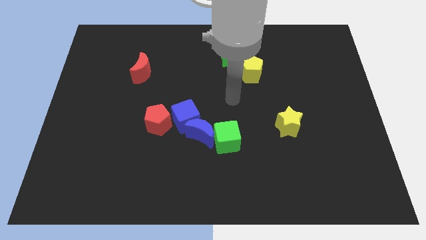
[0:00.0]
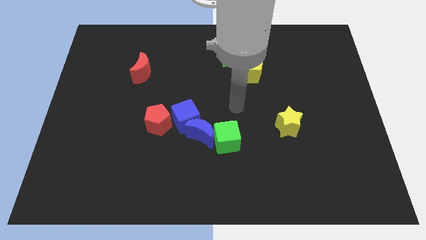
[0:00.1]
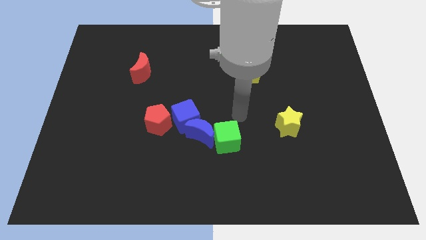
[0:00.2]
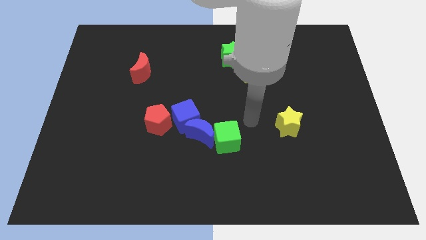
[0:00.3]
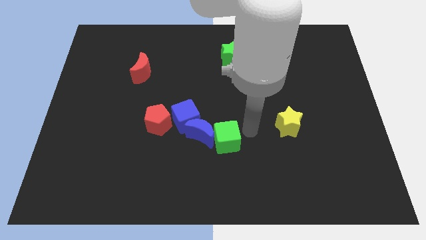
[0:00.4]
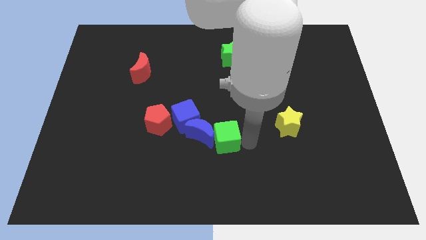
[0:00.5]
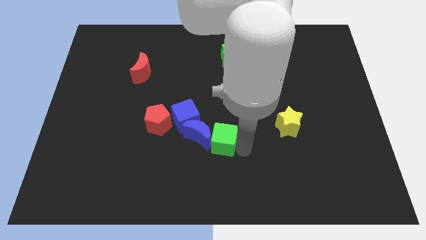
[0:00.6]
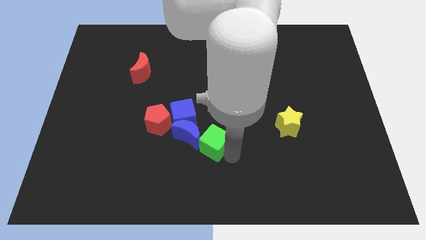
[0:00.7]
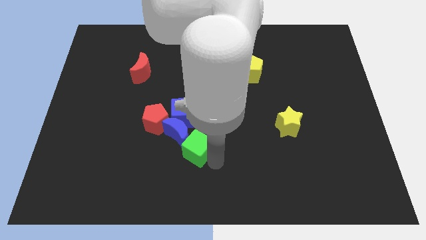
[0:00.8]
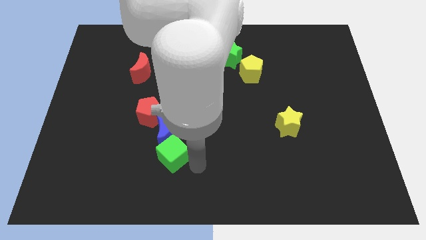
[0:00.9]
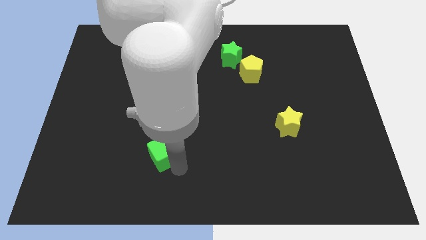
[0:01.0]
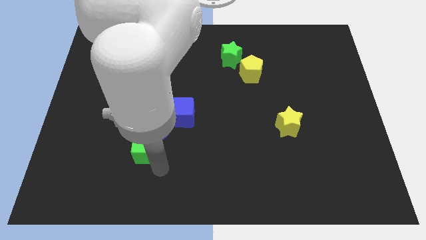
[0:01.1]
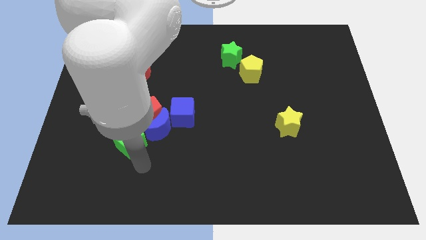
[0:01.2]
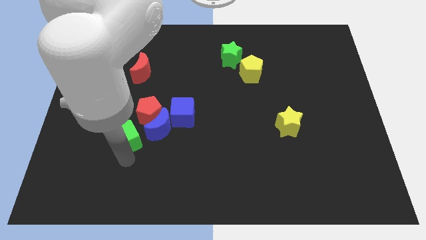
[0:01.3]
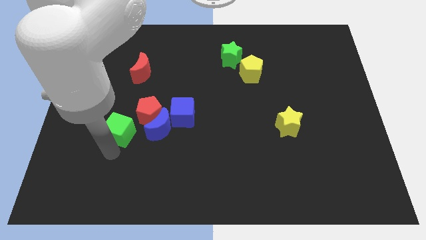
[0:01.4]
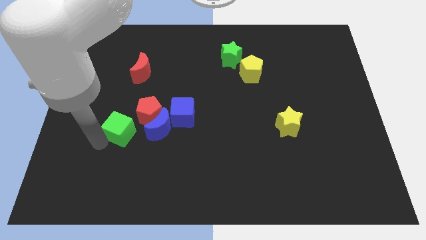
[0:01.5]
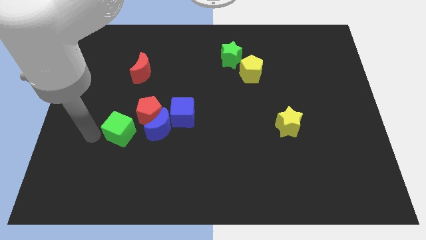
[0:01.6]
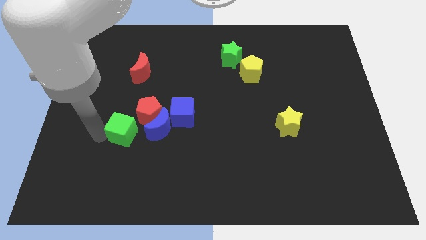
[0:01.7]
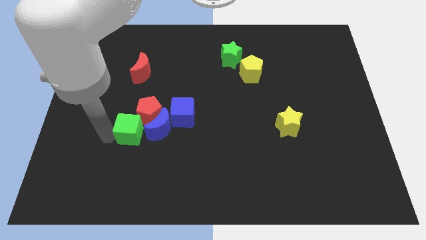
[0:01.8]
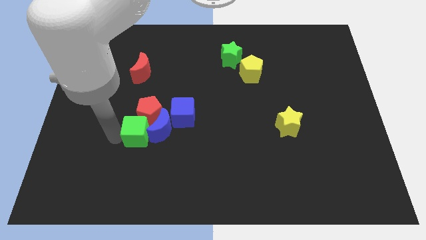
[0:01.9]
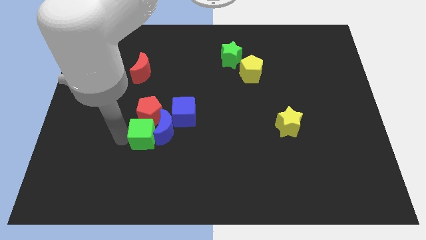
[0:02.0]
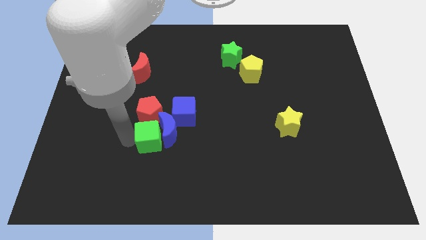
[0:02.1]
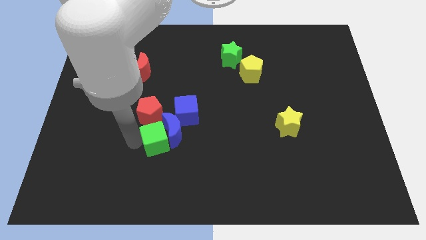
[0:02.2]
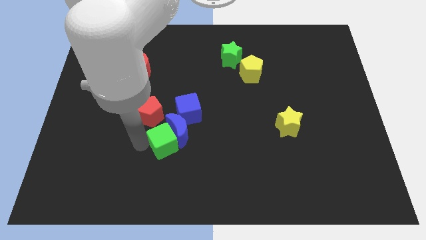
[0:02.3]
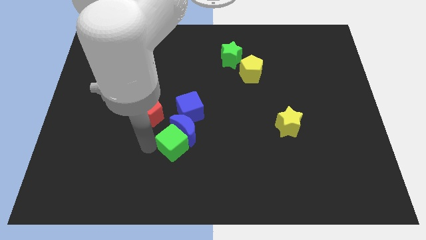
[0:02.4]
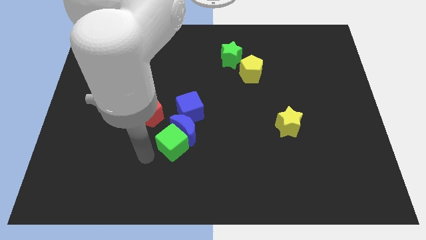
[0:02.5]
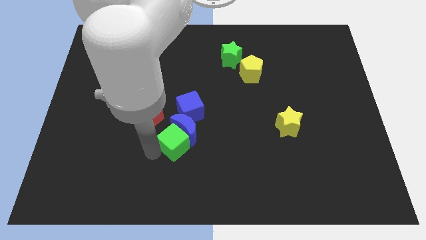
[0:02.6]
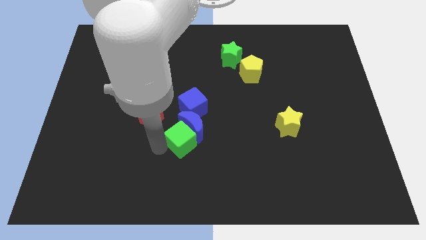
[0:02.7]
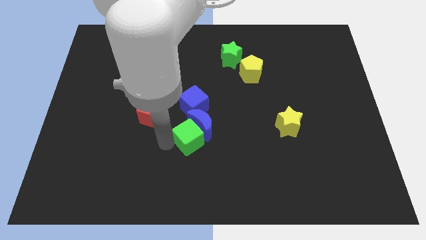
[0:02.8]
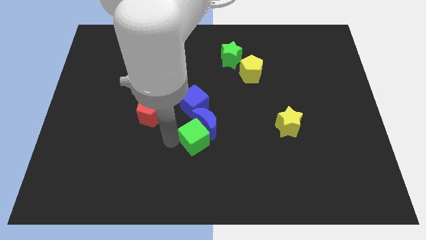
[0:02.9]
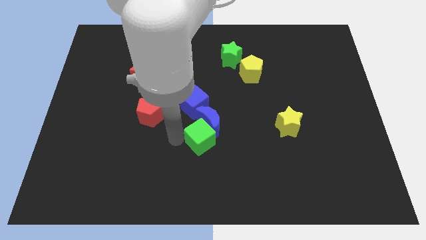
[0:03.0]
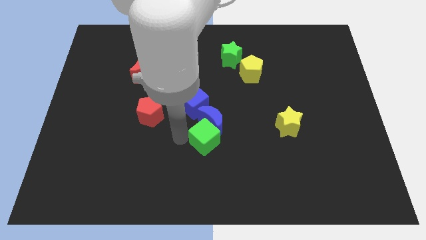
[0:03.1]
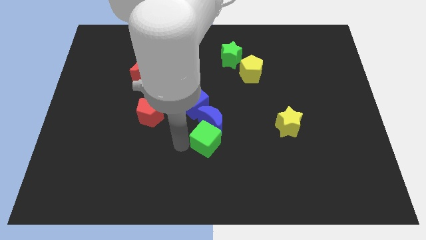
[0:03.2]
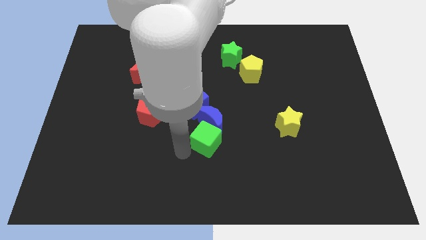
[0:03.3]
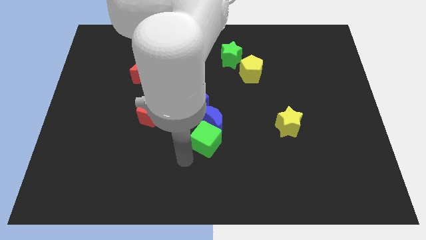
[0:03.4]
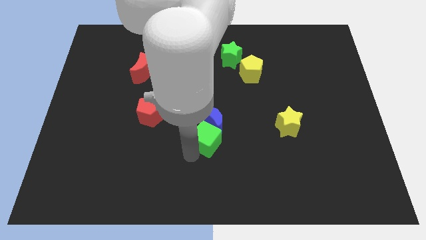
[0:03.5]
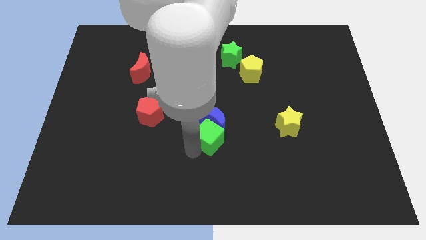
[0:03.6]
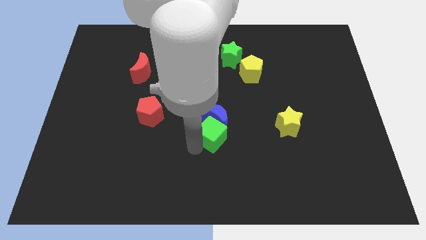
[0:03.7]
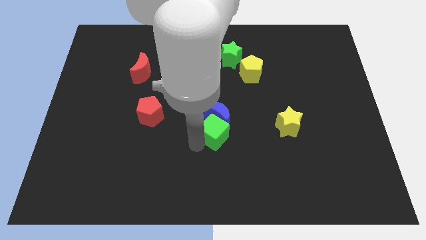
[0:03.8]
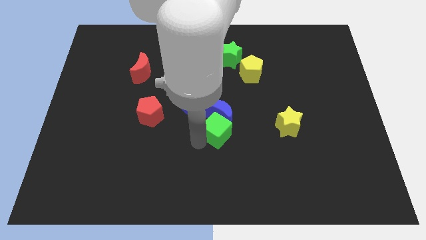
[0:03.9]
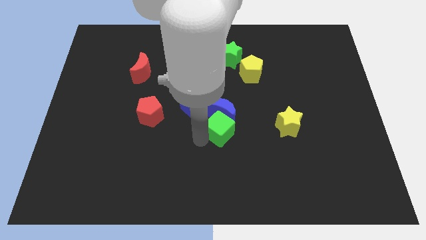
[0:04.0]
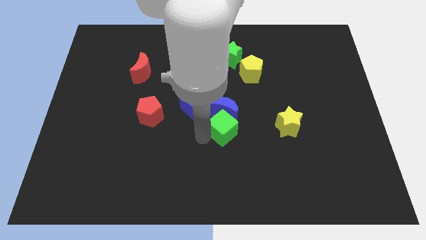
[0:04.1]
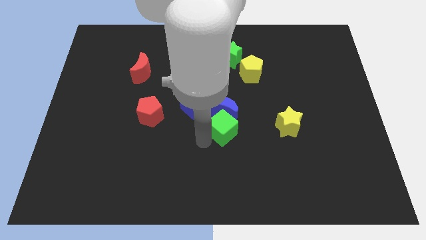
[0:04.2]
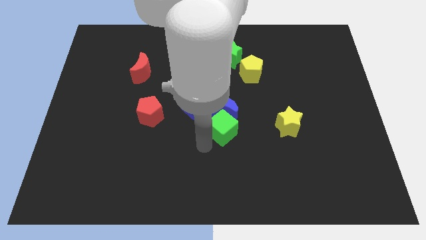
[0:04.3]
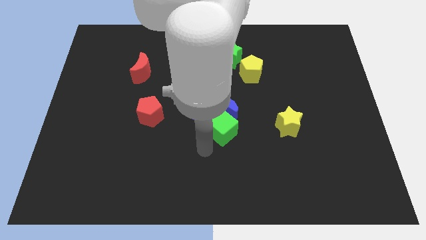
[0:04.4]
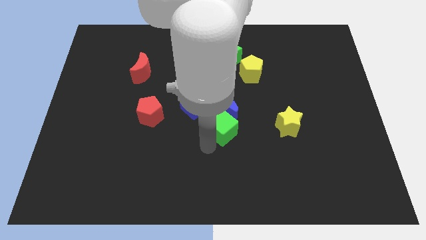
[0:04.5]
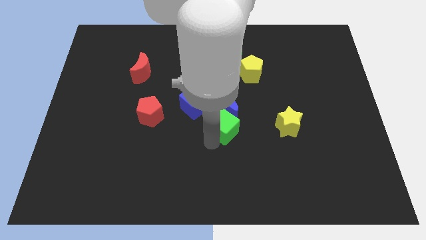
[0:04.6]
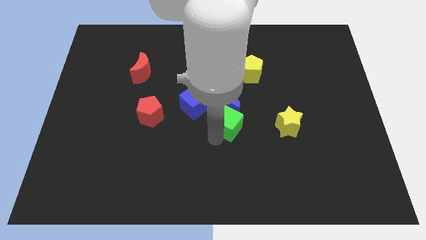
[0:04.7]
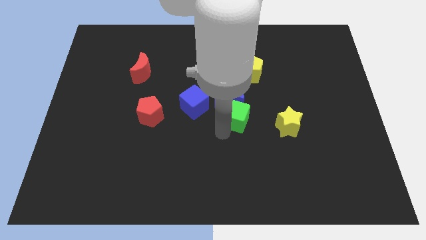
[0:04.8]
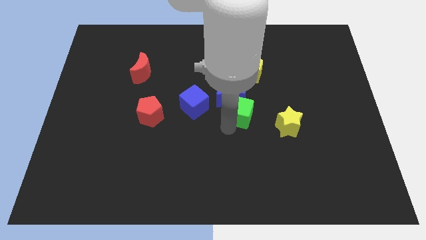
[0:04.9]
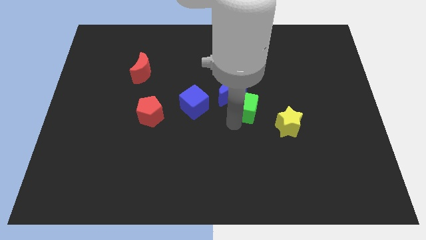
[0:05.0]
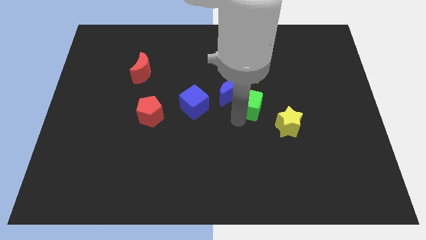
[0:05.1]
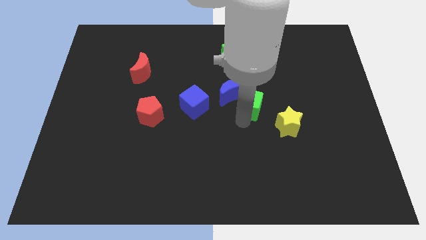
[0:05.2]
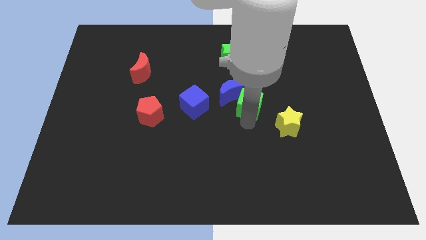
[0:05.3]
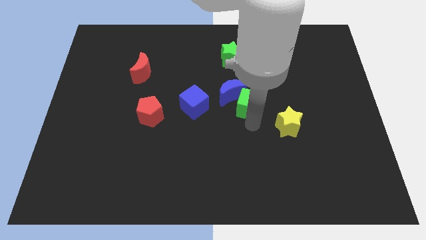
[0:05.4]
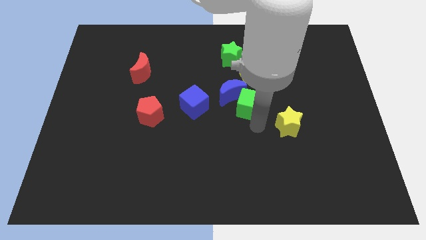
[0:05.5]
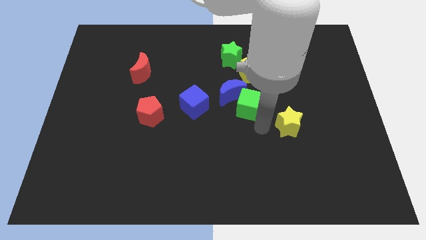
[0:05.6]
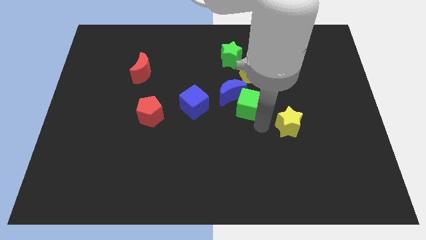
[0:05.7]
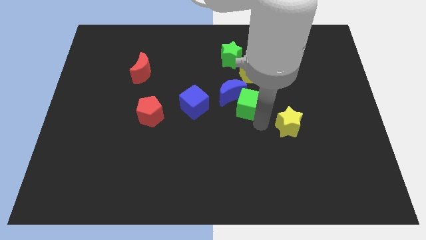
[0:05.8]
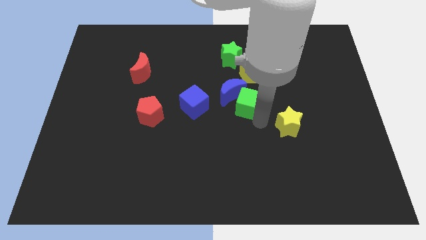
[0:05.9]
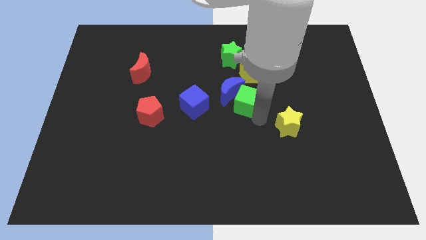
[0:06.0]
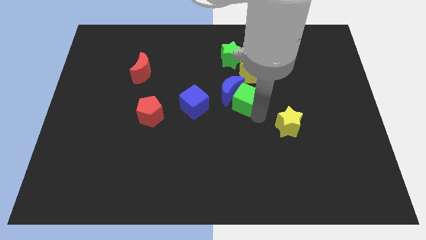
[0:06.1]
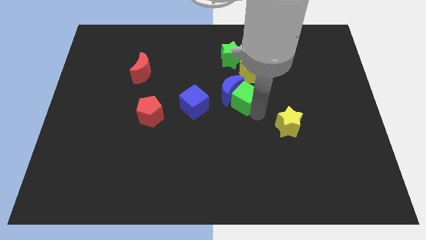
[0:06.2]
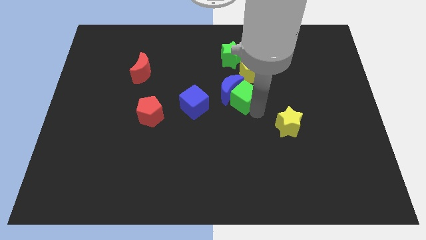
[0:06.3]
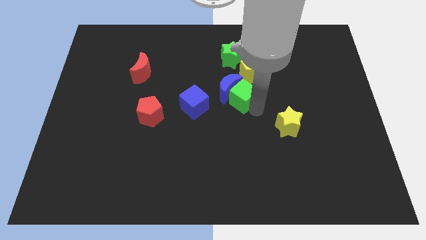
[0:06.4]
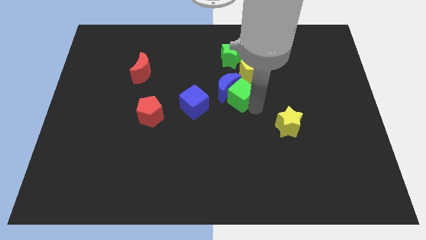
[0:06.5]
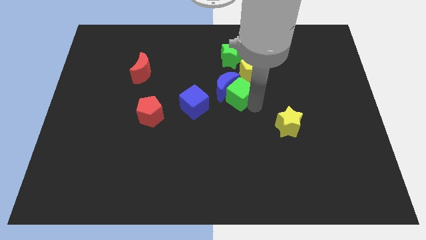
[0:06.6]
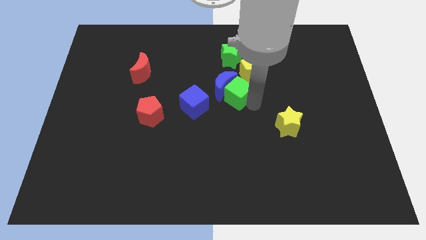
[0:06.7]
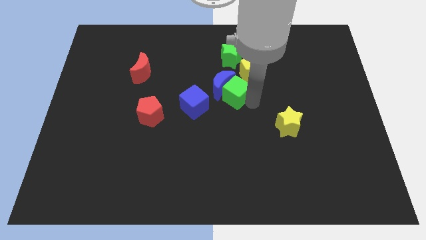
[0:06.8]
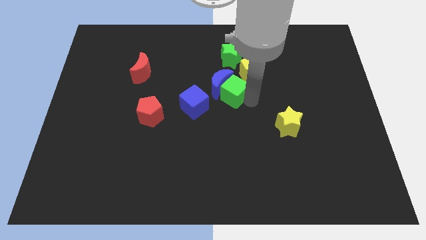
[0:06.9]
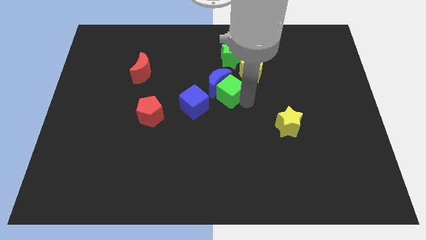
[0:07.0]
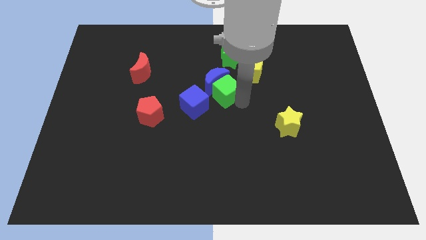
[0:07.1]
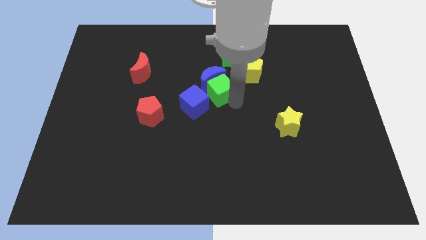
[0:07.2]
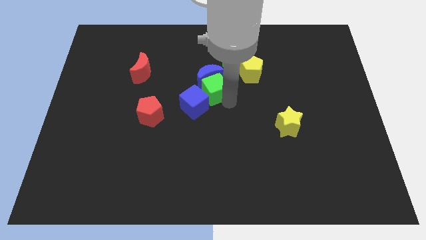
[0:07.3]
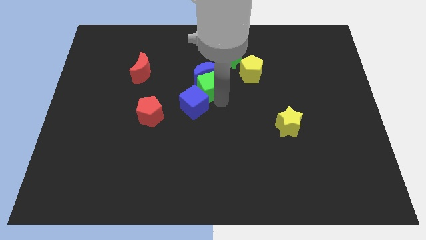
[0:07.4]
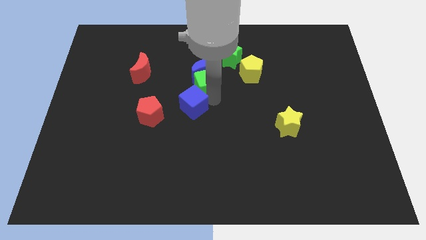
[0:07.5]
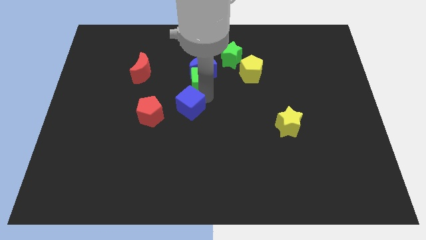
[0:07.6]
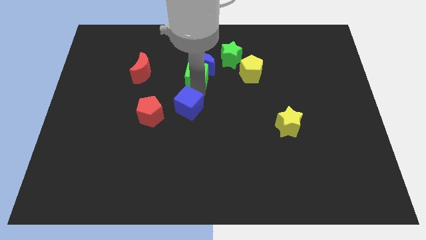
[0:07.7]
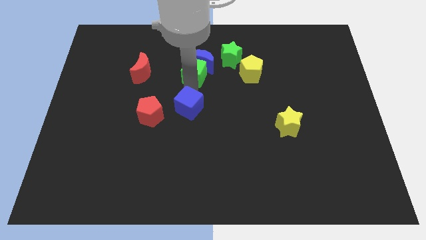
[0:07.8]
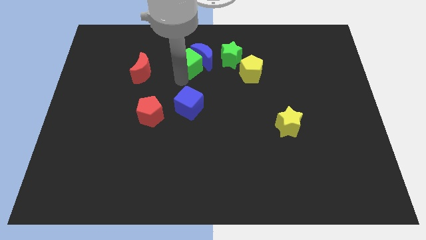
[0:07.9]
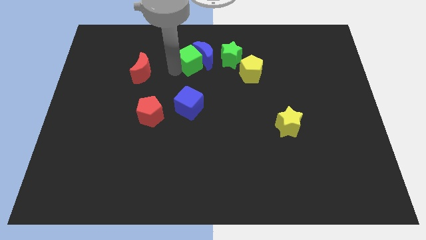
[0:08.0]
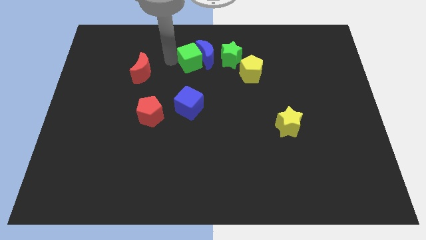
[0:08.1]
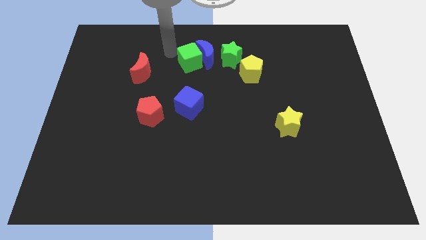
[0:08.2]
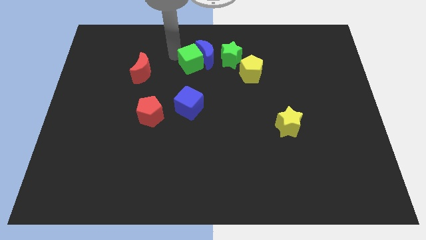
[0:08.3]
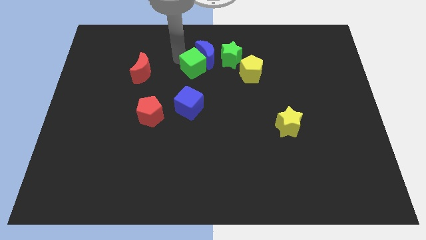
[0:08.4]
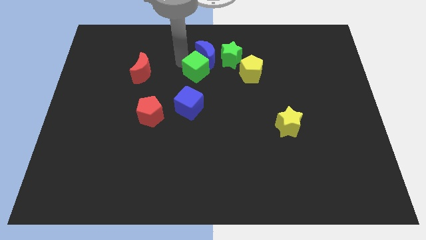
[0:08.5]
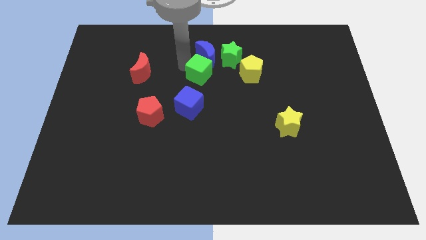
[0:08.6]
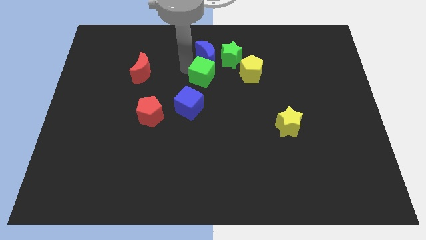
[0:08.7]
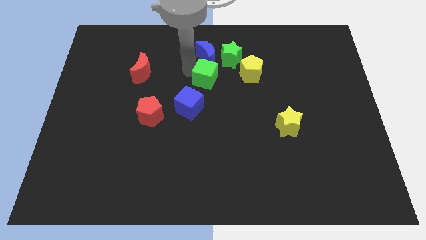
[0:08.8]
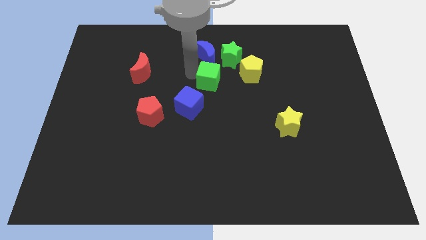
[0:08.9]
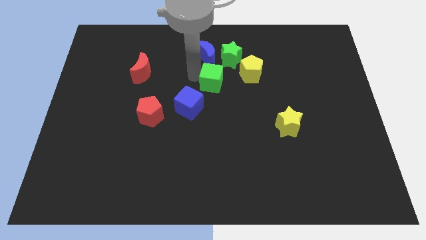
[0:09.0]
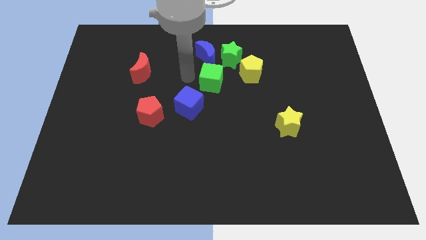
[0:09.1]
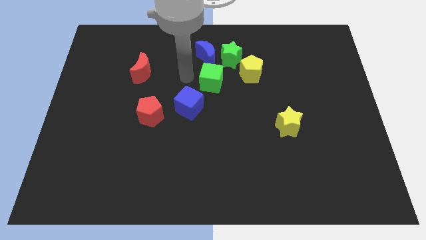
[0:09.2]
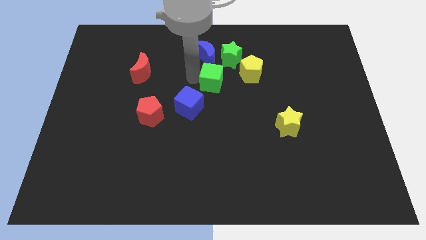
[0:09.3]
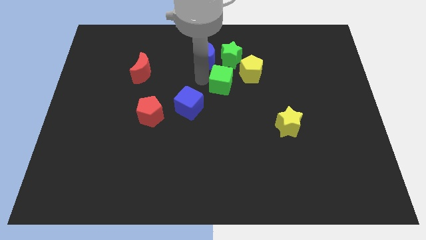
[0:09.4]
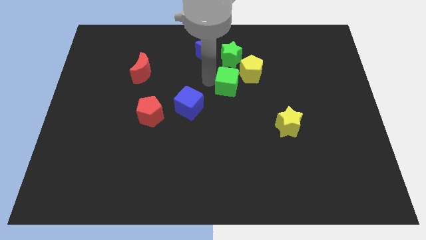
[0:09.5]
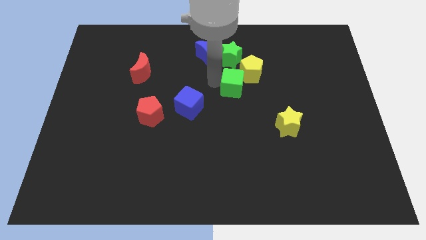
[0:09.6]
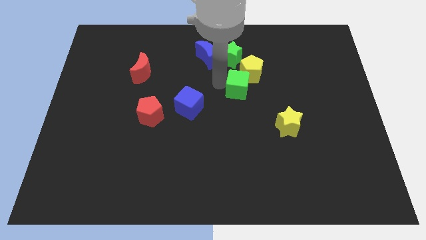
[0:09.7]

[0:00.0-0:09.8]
push the green cube to the yellow pentagon
